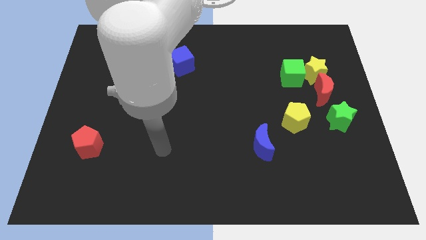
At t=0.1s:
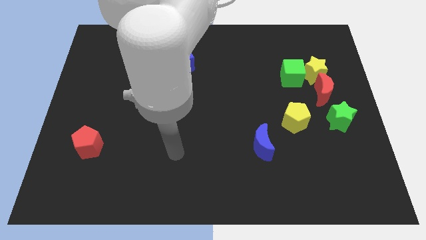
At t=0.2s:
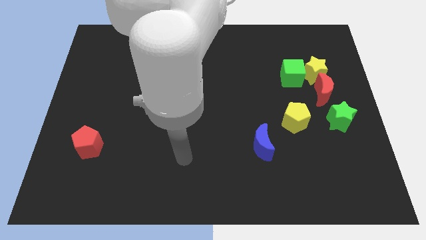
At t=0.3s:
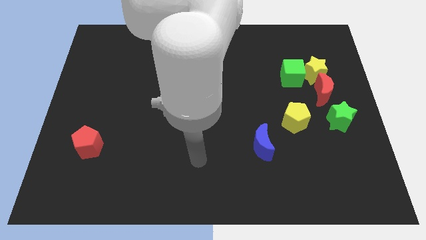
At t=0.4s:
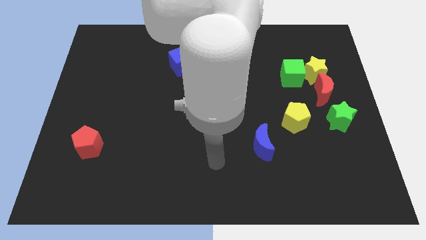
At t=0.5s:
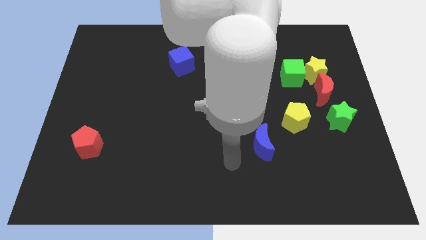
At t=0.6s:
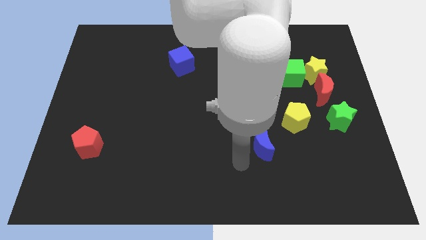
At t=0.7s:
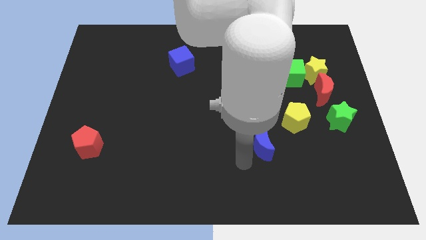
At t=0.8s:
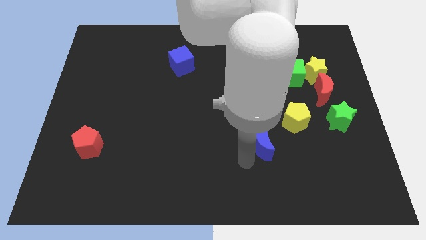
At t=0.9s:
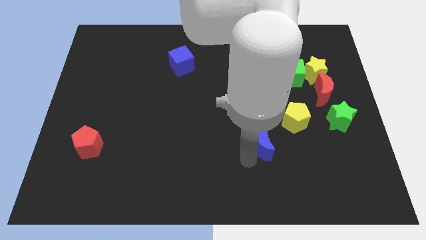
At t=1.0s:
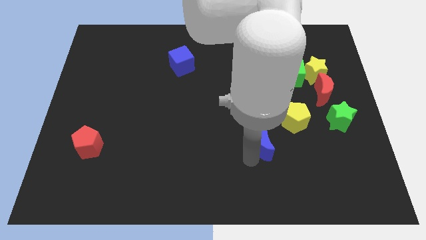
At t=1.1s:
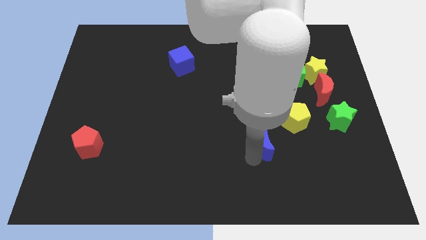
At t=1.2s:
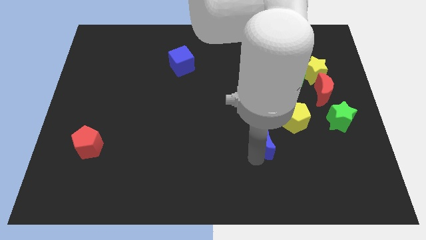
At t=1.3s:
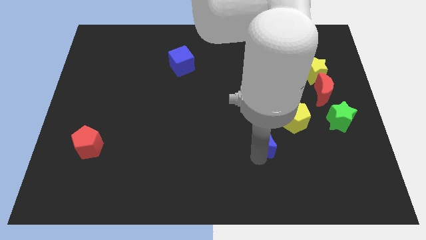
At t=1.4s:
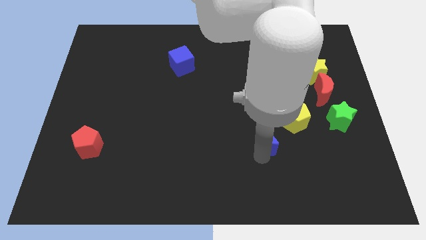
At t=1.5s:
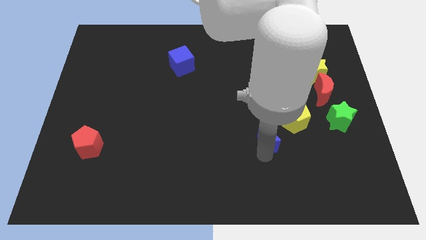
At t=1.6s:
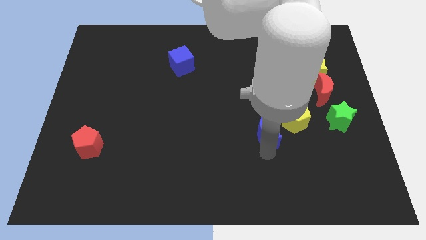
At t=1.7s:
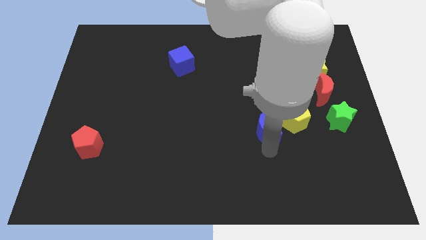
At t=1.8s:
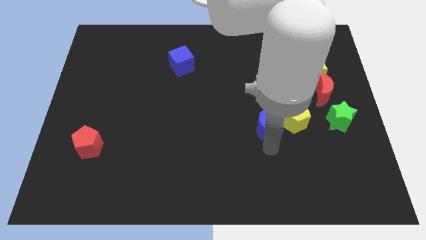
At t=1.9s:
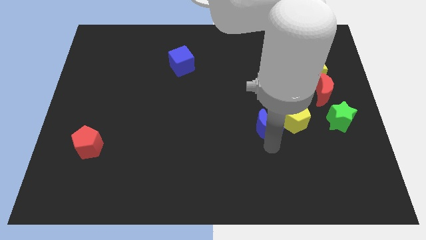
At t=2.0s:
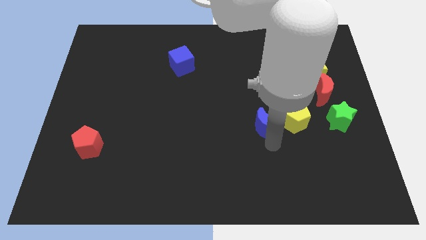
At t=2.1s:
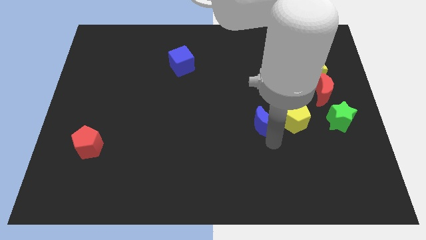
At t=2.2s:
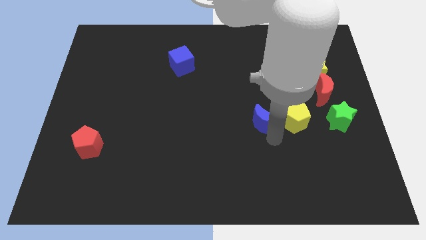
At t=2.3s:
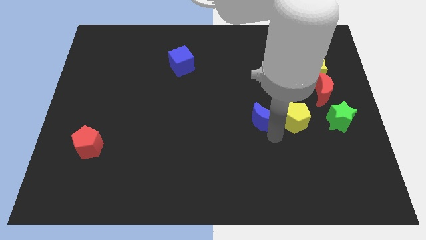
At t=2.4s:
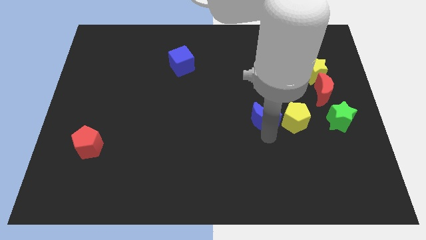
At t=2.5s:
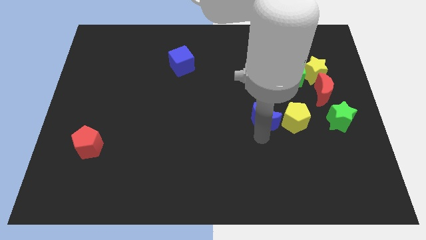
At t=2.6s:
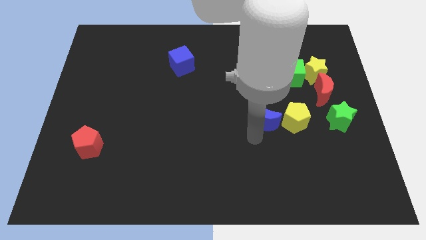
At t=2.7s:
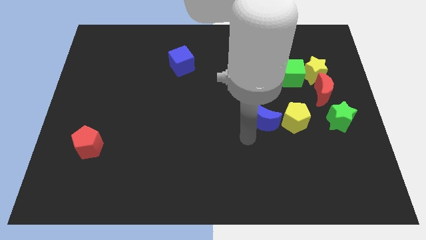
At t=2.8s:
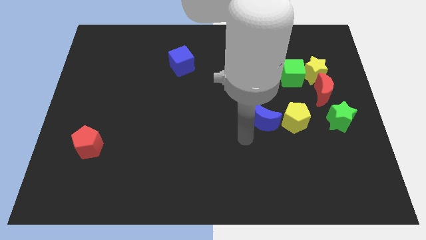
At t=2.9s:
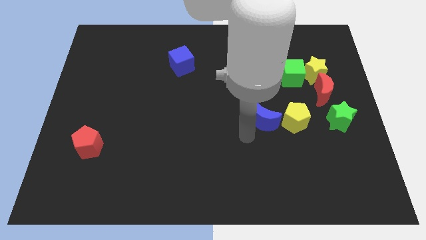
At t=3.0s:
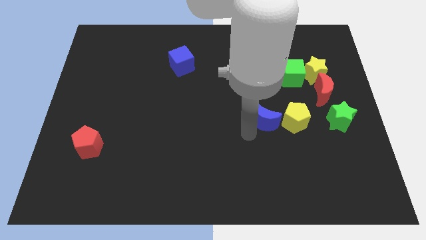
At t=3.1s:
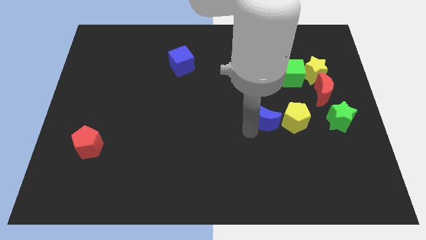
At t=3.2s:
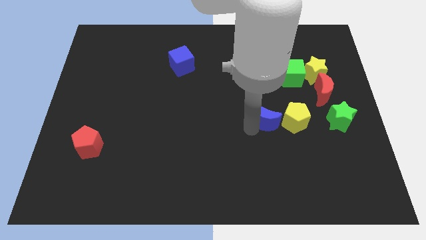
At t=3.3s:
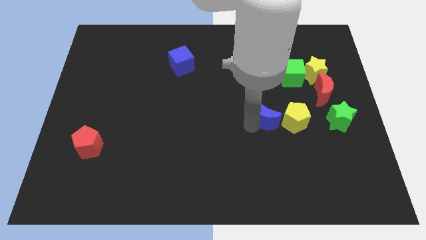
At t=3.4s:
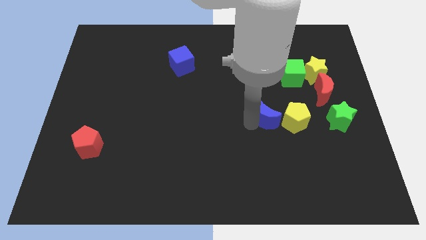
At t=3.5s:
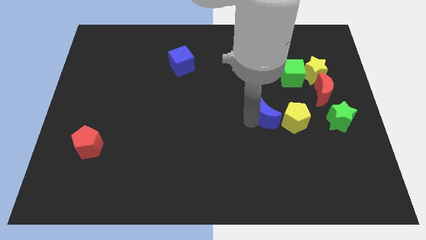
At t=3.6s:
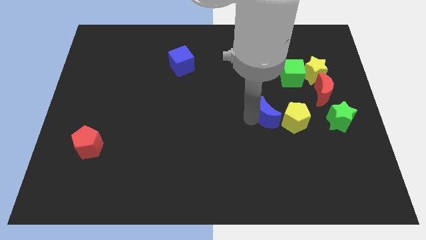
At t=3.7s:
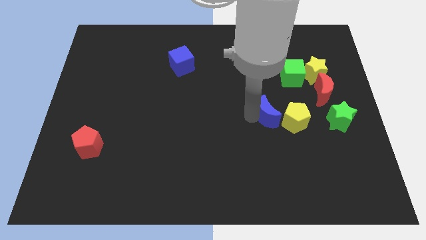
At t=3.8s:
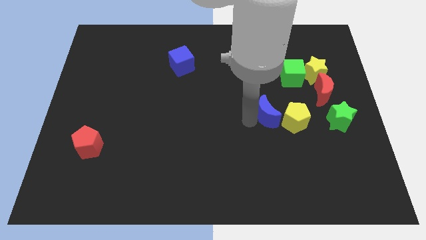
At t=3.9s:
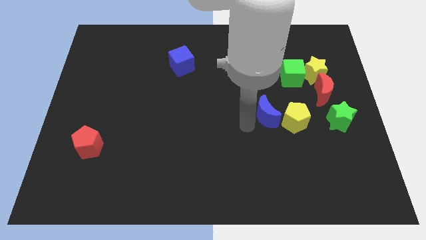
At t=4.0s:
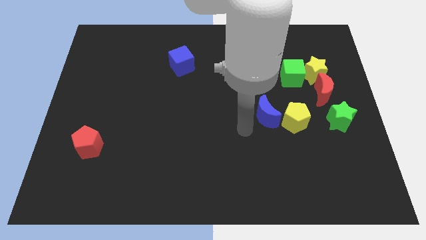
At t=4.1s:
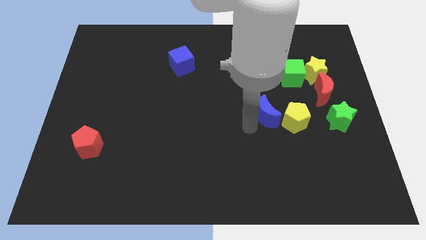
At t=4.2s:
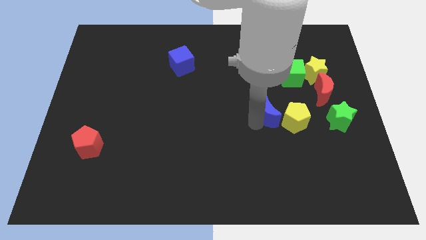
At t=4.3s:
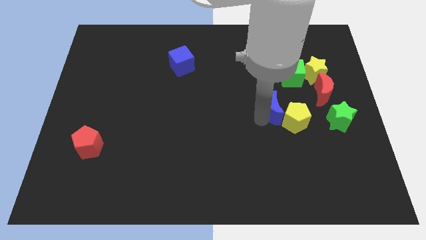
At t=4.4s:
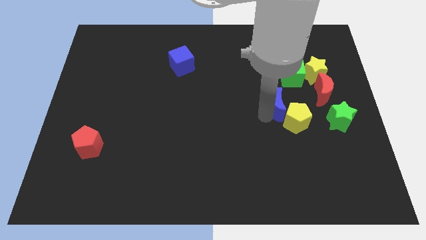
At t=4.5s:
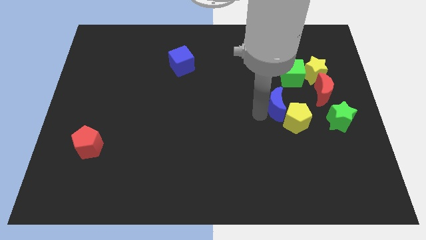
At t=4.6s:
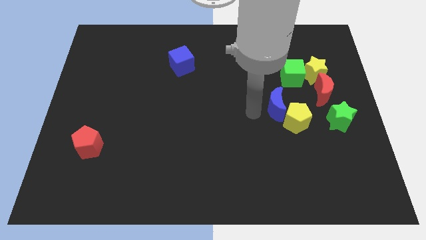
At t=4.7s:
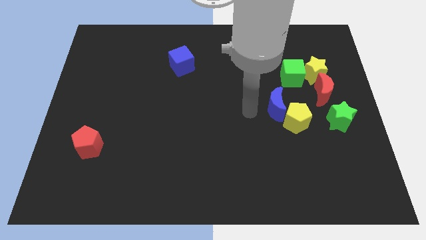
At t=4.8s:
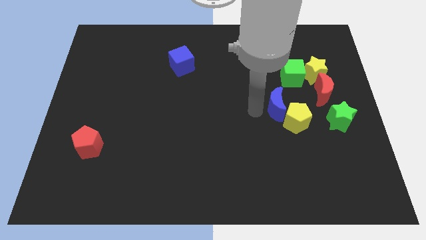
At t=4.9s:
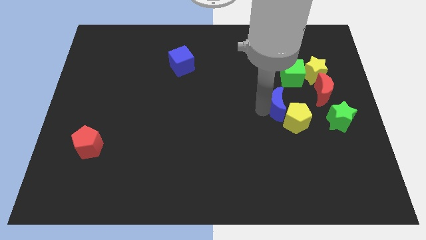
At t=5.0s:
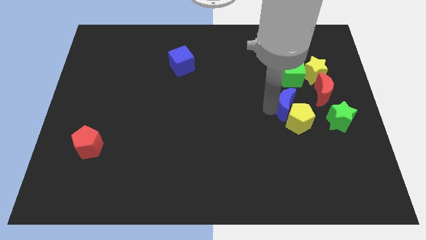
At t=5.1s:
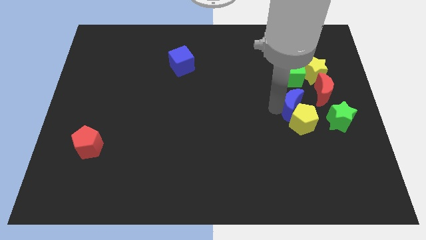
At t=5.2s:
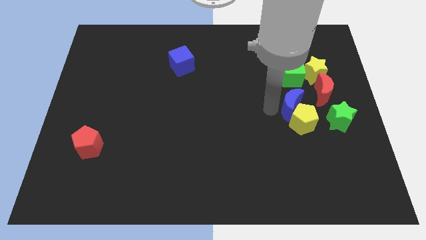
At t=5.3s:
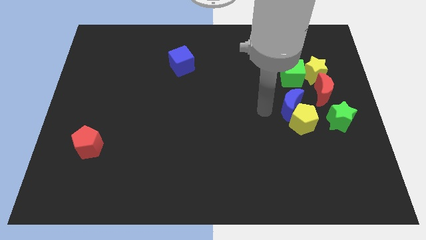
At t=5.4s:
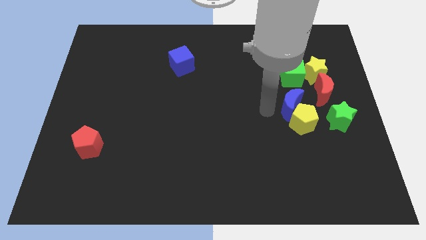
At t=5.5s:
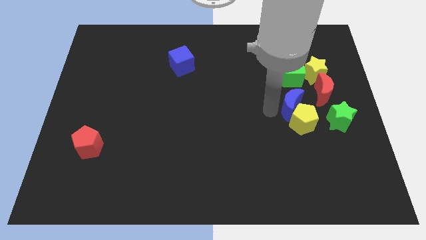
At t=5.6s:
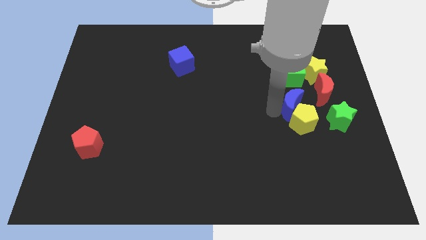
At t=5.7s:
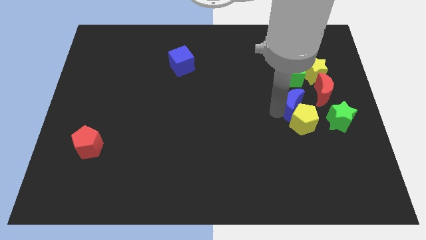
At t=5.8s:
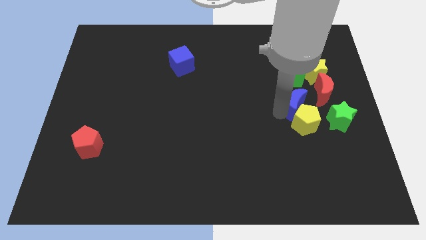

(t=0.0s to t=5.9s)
slide the blue moon diagonally up and to the left of the green star

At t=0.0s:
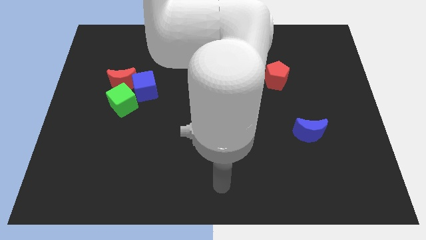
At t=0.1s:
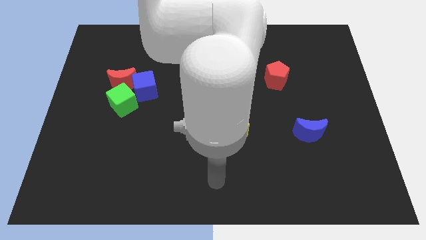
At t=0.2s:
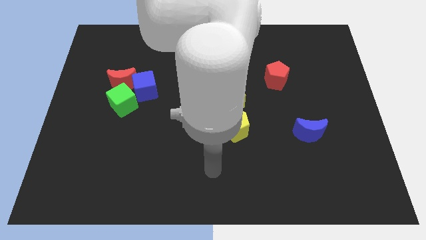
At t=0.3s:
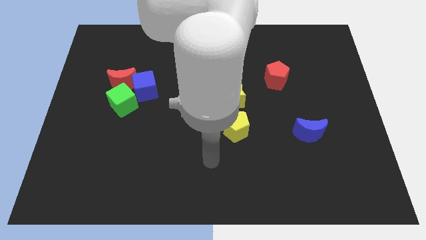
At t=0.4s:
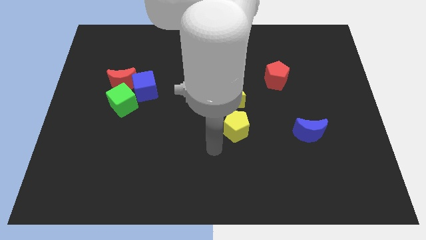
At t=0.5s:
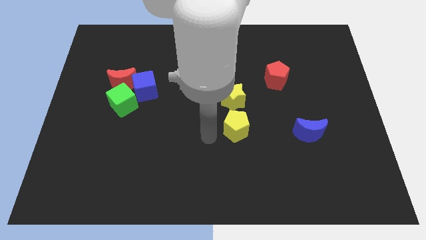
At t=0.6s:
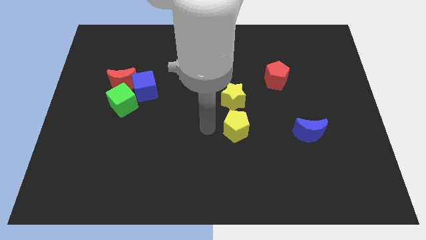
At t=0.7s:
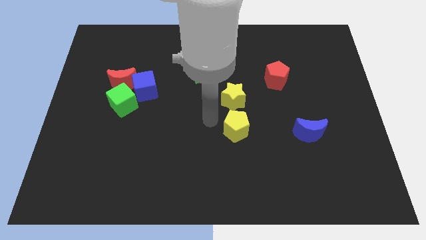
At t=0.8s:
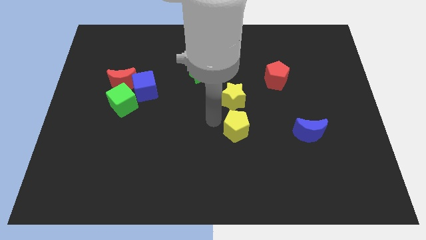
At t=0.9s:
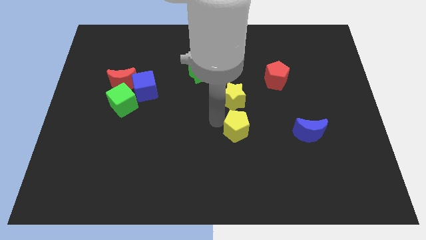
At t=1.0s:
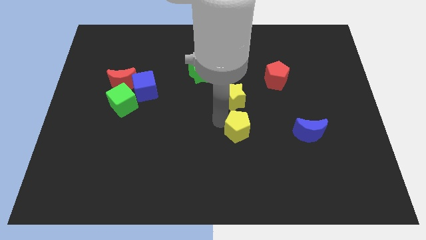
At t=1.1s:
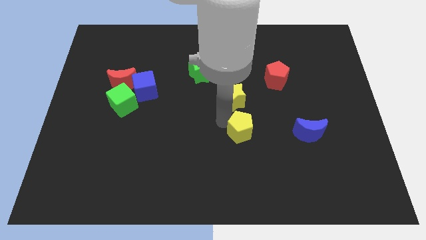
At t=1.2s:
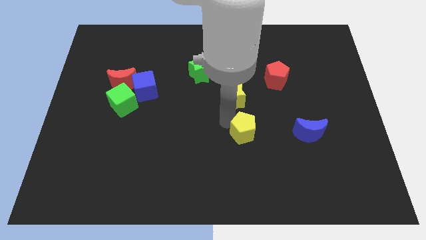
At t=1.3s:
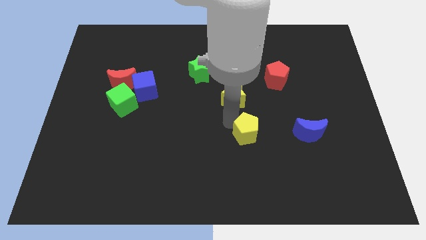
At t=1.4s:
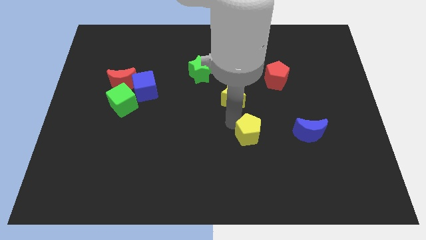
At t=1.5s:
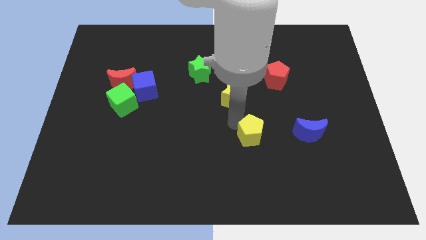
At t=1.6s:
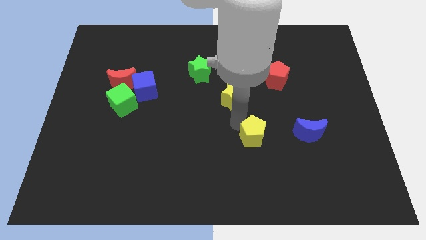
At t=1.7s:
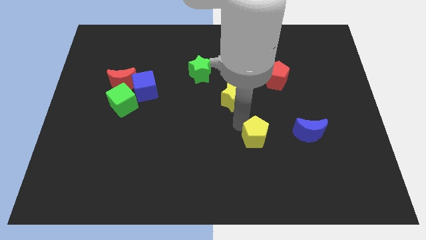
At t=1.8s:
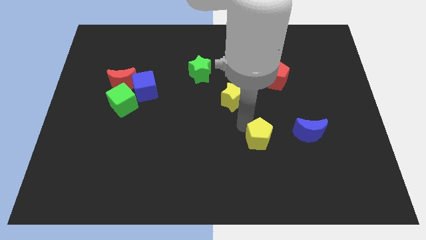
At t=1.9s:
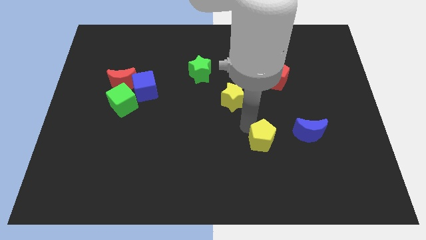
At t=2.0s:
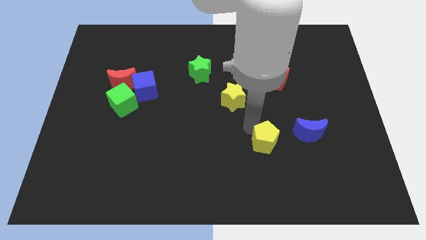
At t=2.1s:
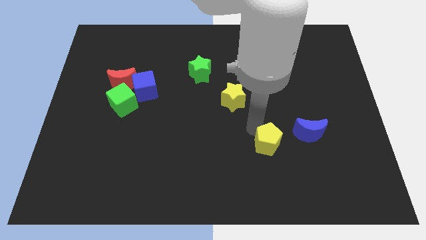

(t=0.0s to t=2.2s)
move the yellow pentagon diagonally down and to the left of the blue moon

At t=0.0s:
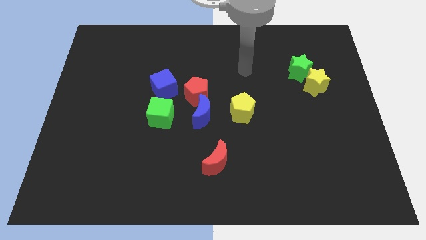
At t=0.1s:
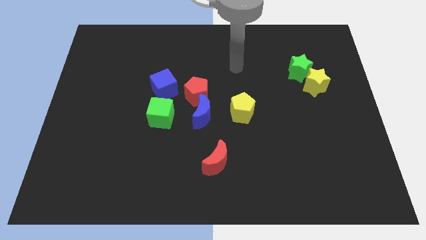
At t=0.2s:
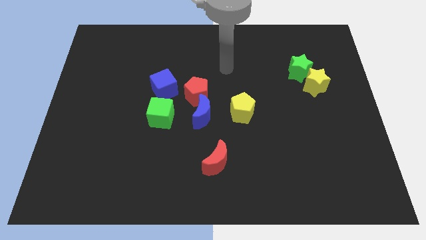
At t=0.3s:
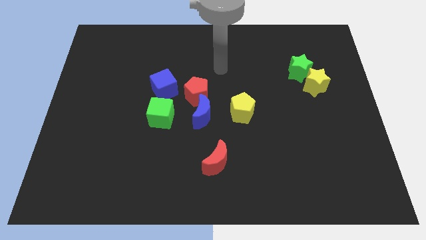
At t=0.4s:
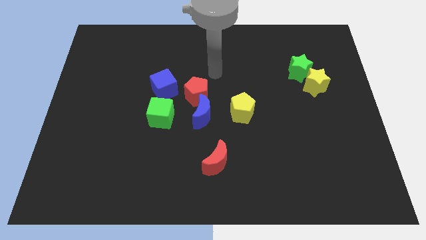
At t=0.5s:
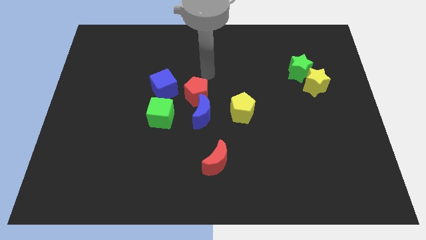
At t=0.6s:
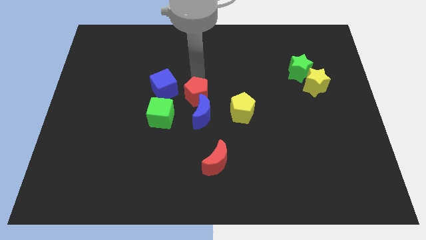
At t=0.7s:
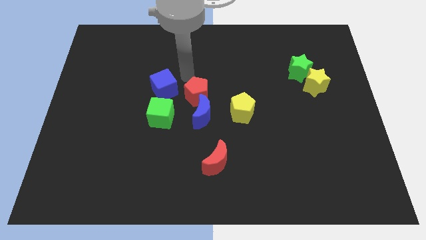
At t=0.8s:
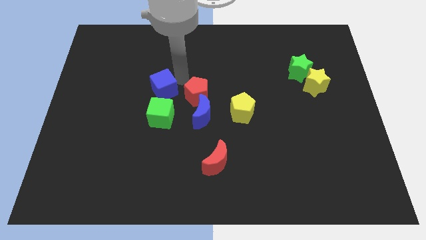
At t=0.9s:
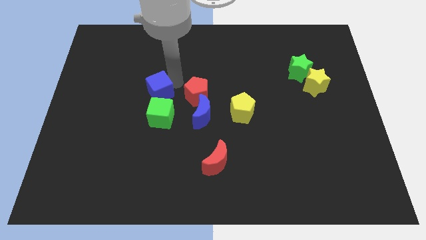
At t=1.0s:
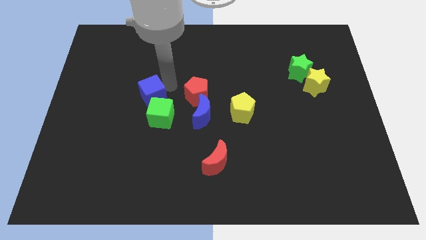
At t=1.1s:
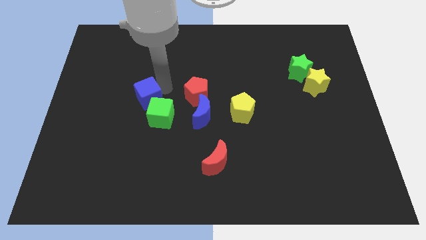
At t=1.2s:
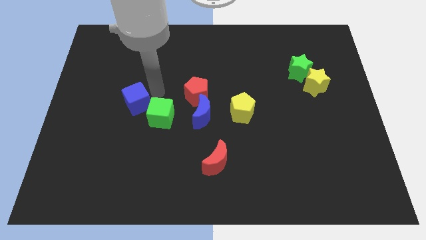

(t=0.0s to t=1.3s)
slide the blue cube just left of the green cube
